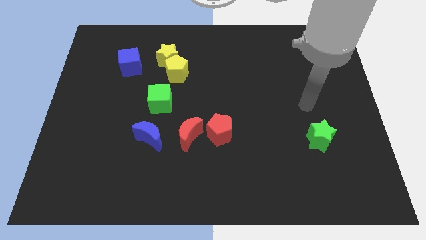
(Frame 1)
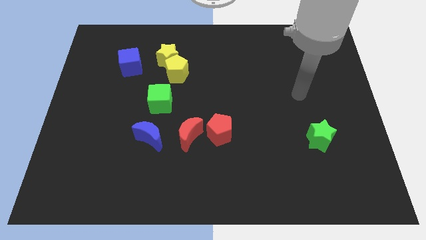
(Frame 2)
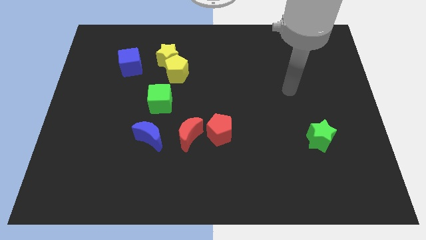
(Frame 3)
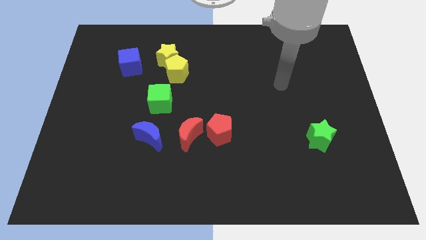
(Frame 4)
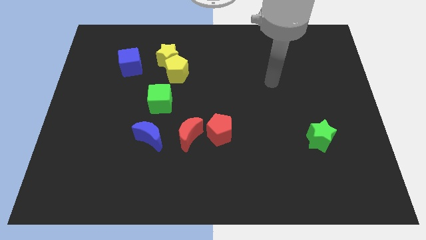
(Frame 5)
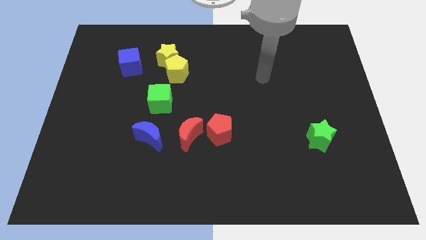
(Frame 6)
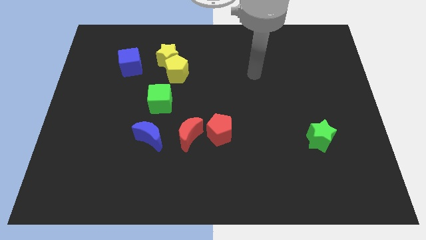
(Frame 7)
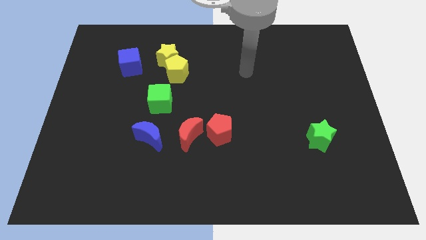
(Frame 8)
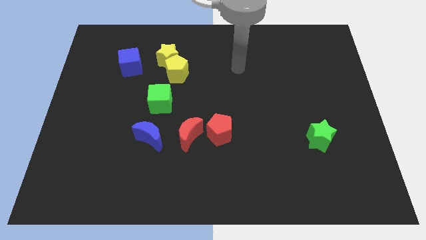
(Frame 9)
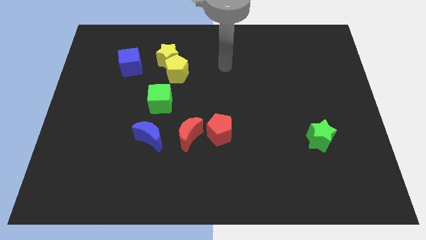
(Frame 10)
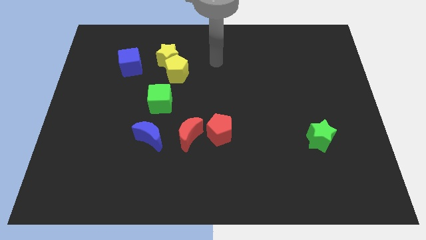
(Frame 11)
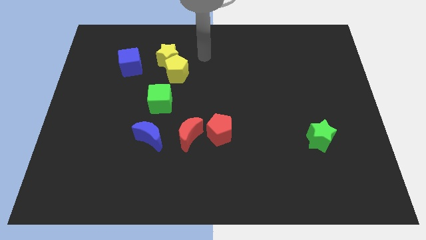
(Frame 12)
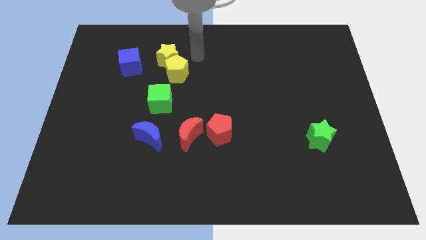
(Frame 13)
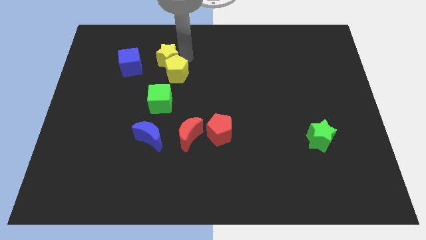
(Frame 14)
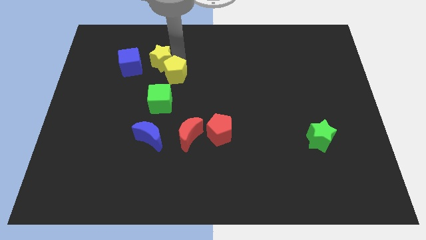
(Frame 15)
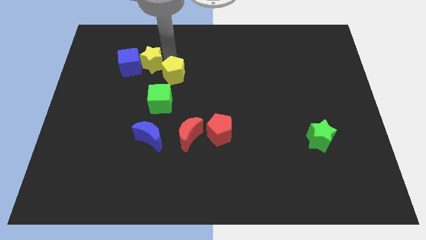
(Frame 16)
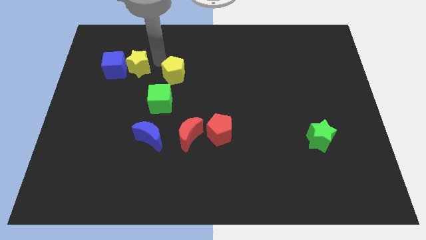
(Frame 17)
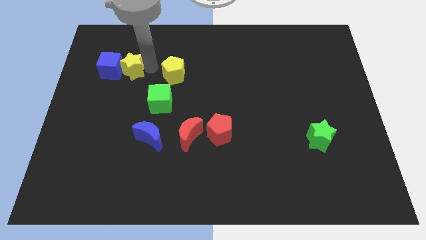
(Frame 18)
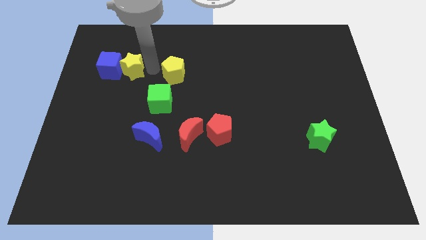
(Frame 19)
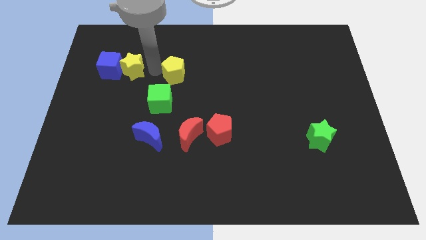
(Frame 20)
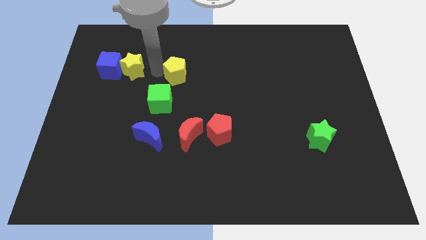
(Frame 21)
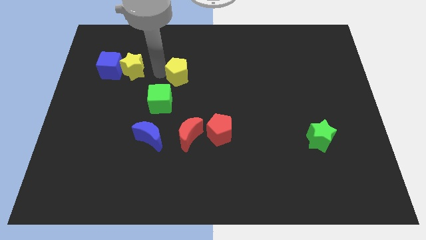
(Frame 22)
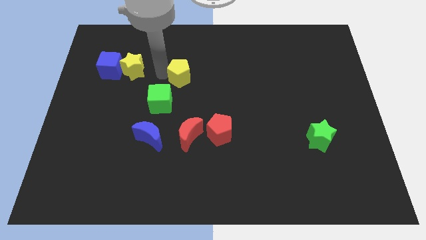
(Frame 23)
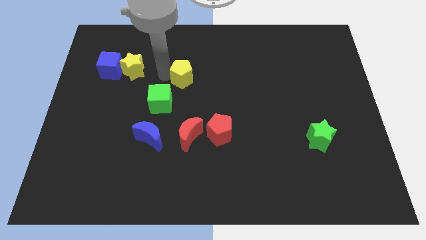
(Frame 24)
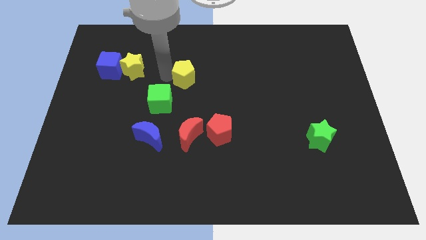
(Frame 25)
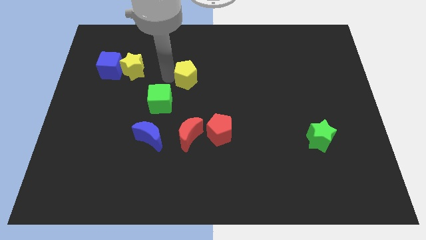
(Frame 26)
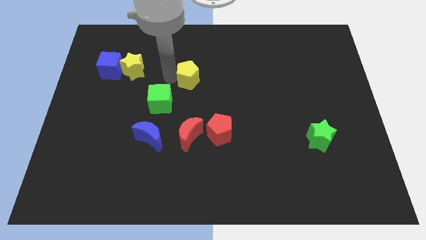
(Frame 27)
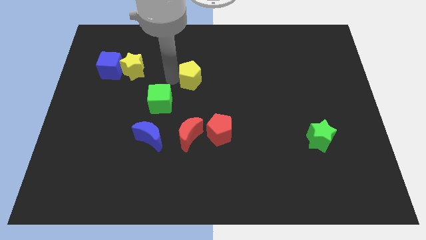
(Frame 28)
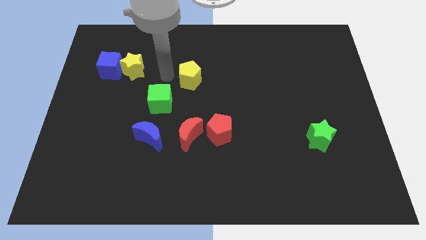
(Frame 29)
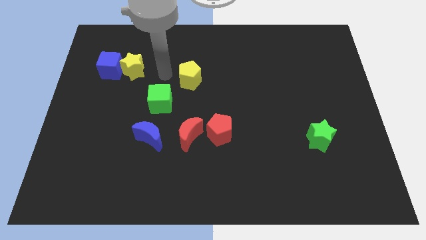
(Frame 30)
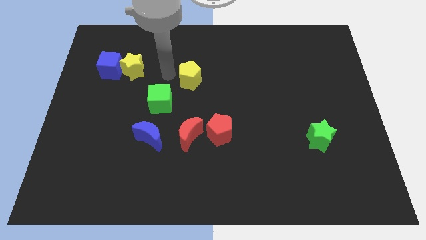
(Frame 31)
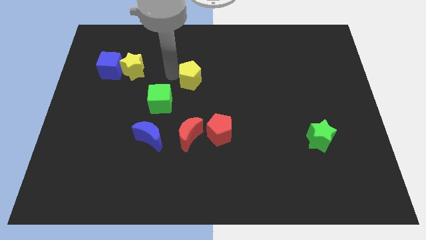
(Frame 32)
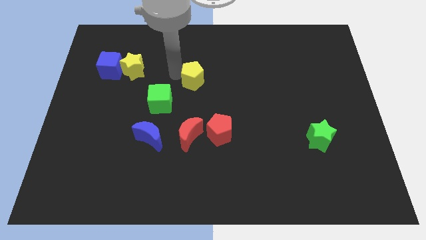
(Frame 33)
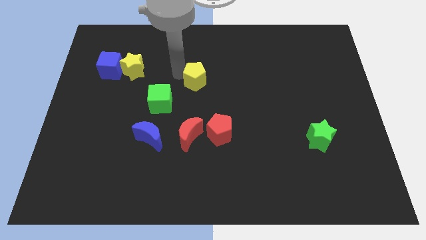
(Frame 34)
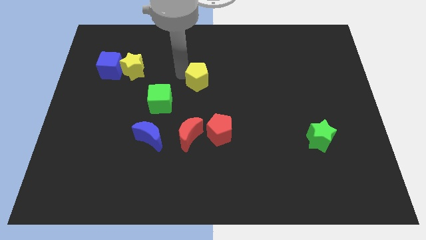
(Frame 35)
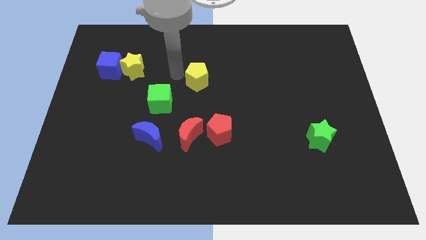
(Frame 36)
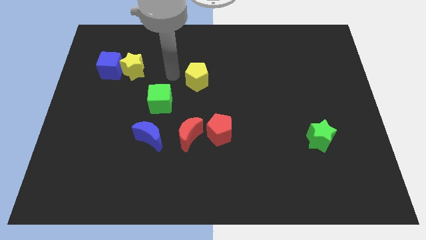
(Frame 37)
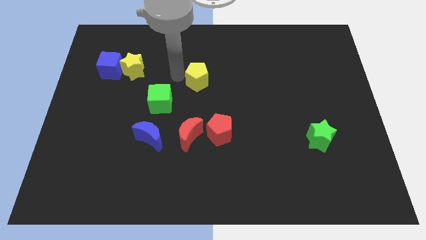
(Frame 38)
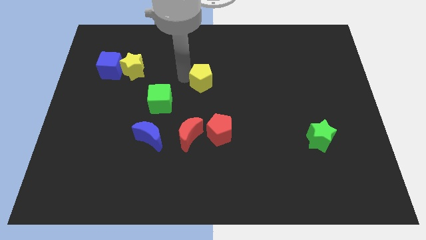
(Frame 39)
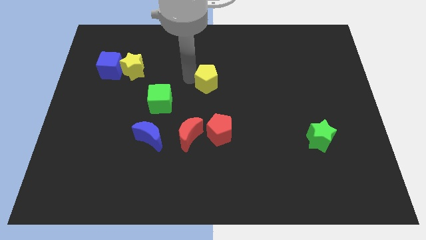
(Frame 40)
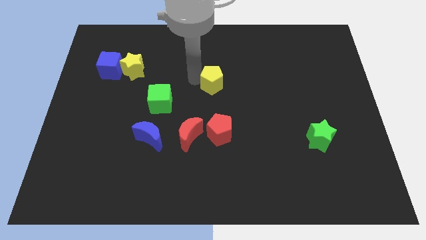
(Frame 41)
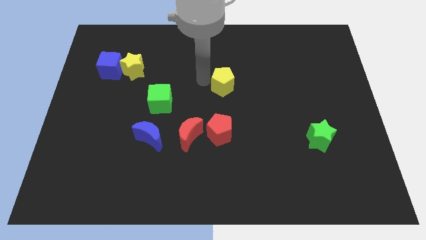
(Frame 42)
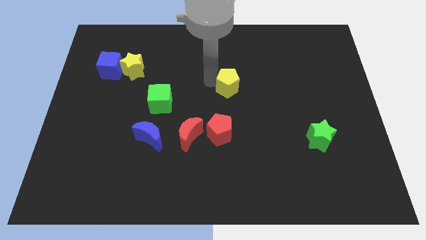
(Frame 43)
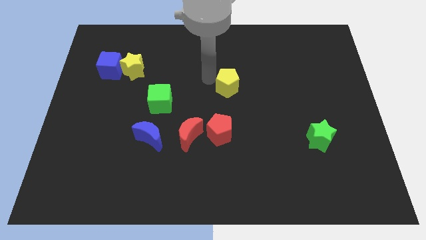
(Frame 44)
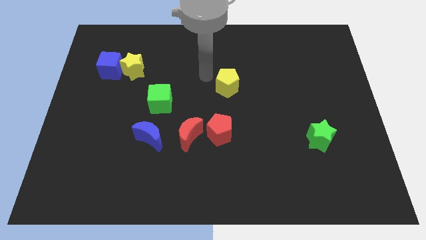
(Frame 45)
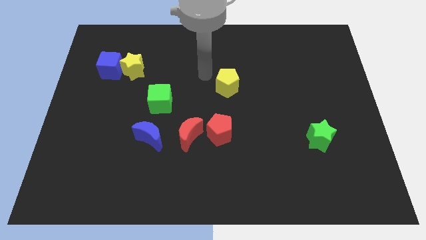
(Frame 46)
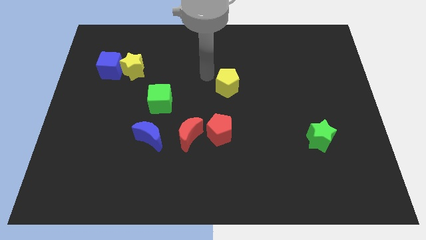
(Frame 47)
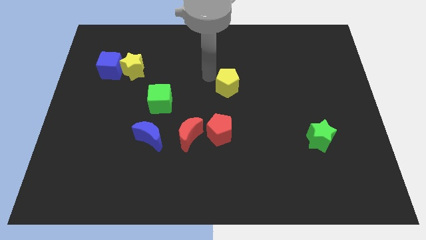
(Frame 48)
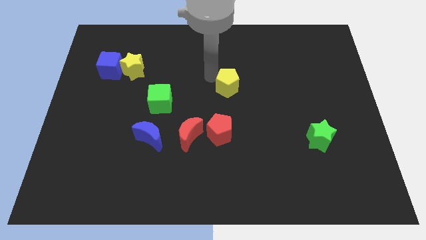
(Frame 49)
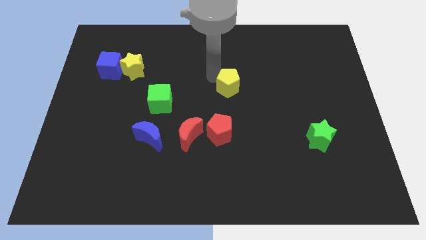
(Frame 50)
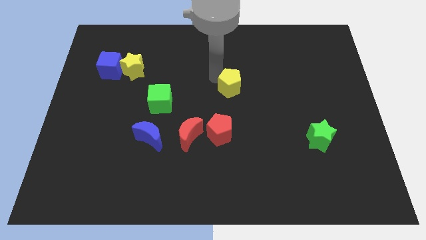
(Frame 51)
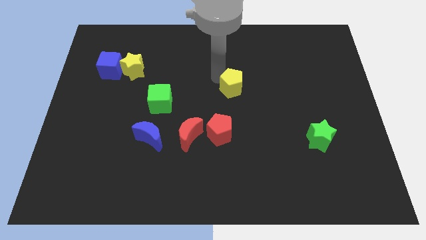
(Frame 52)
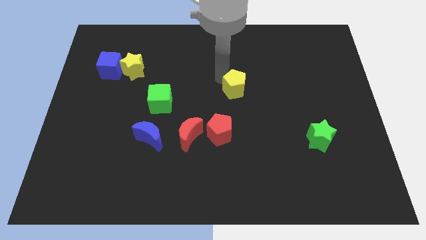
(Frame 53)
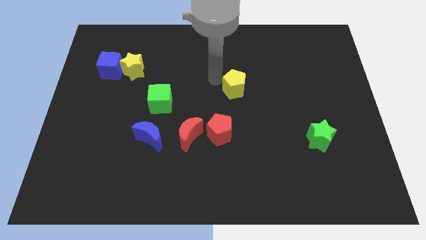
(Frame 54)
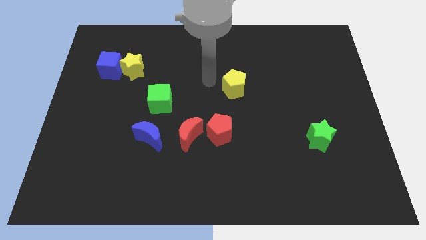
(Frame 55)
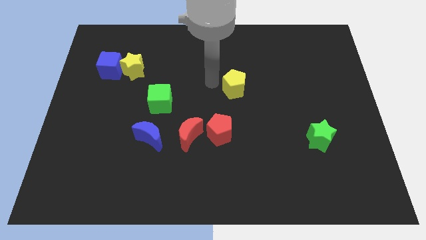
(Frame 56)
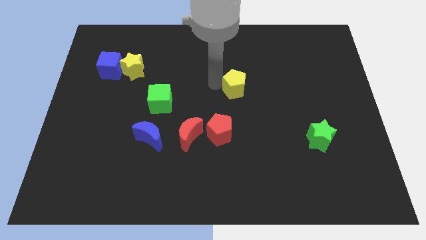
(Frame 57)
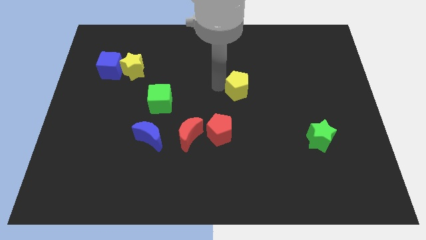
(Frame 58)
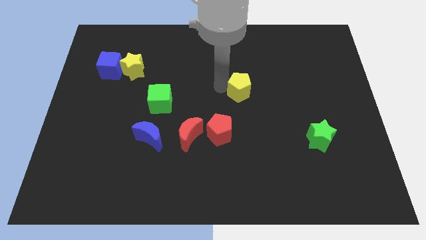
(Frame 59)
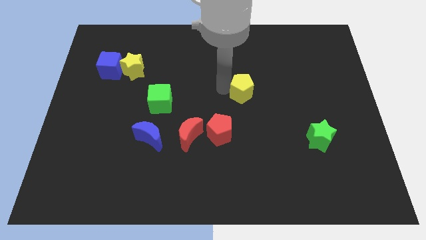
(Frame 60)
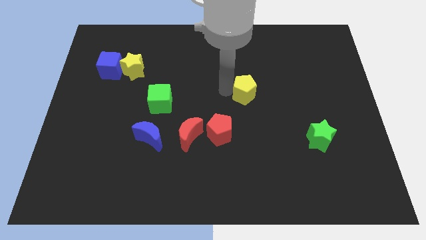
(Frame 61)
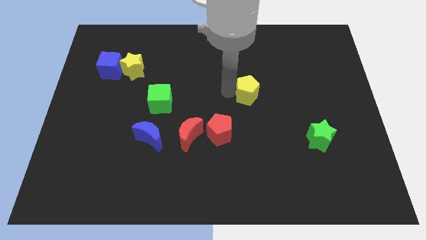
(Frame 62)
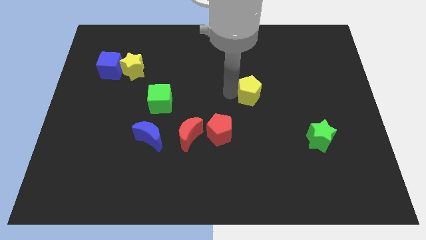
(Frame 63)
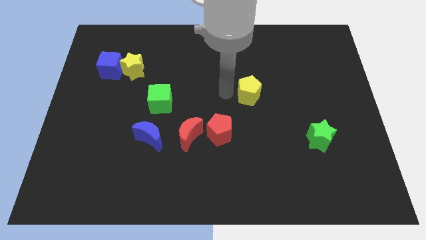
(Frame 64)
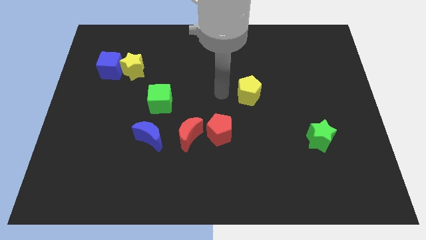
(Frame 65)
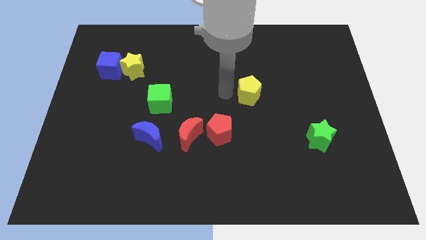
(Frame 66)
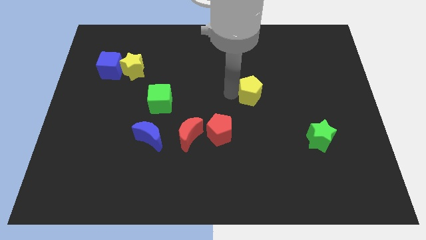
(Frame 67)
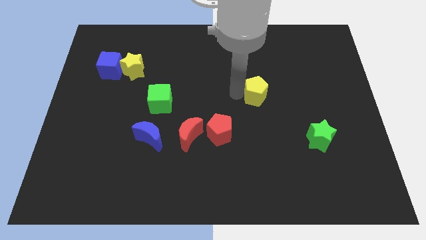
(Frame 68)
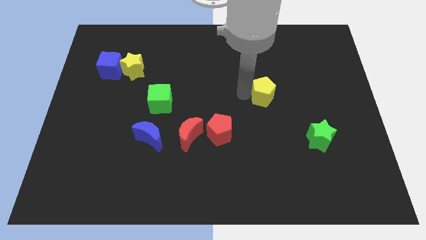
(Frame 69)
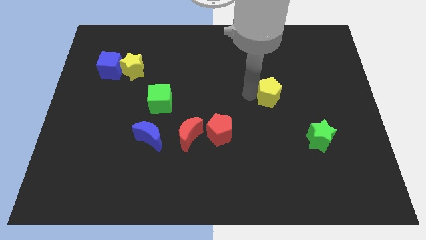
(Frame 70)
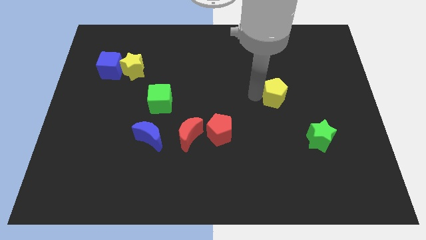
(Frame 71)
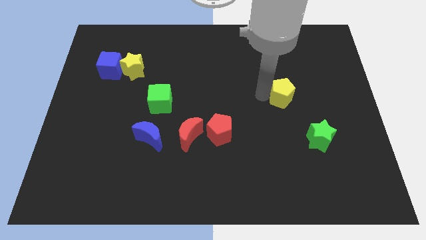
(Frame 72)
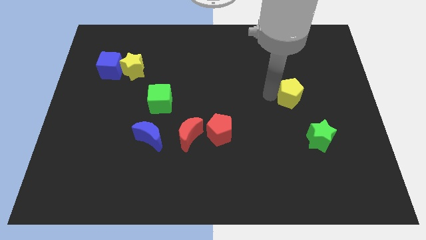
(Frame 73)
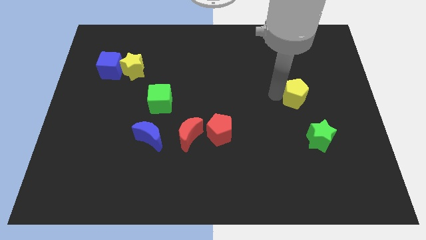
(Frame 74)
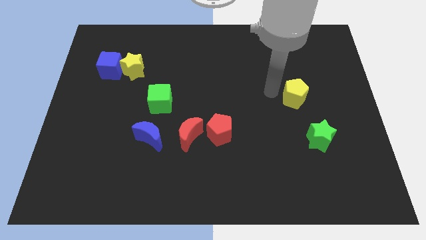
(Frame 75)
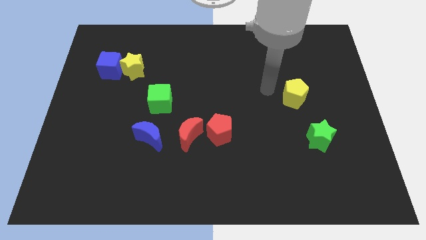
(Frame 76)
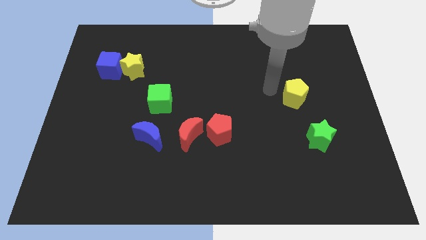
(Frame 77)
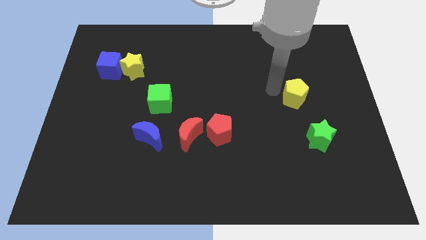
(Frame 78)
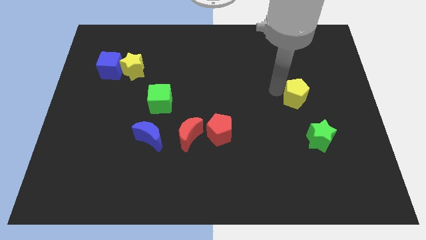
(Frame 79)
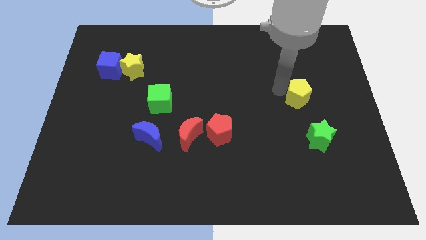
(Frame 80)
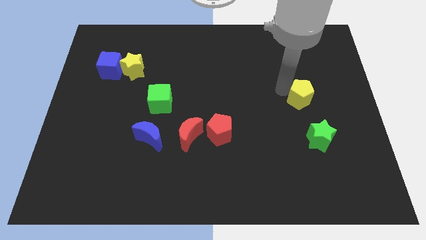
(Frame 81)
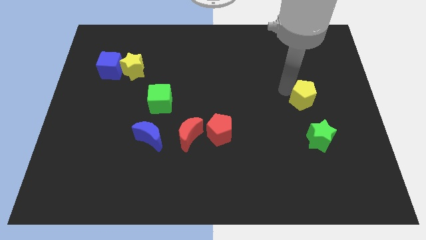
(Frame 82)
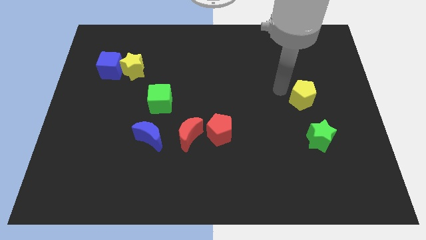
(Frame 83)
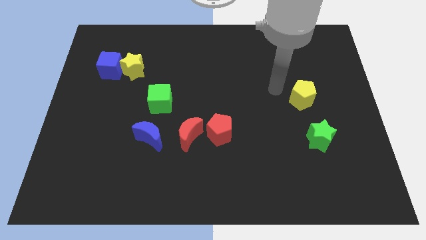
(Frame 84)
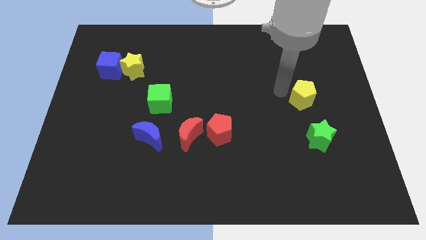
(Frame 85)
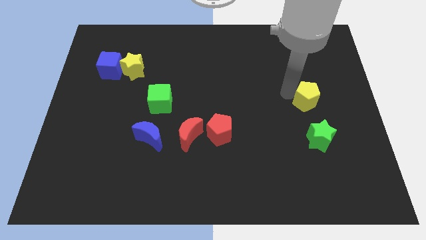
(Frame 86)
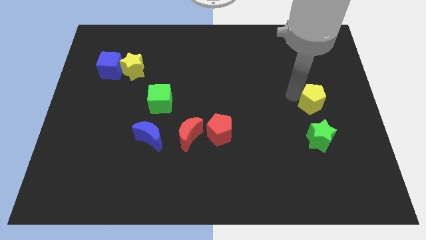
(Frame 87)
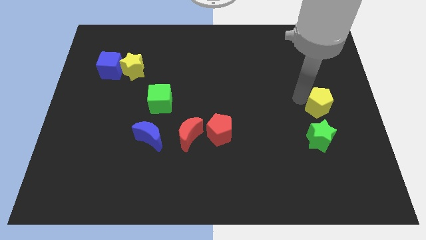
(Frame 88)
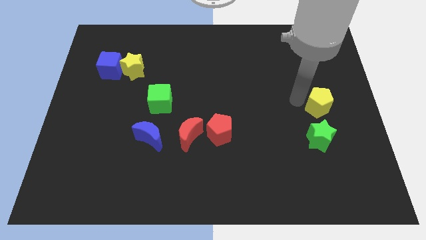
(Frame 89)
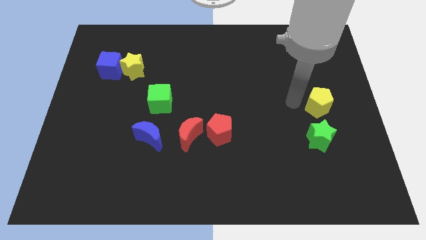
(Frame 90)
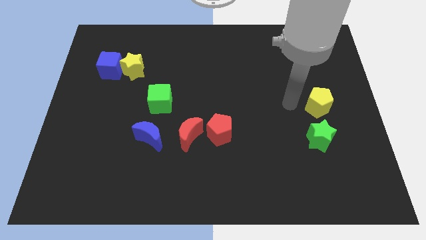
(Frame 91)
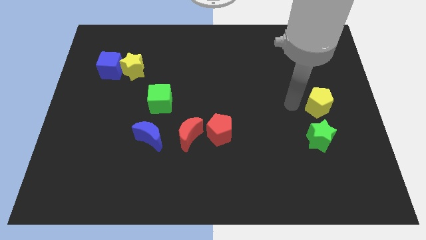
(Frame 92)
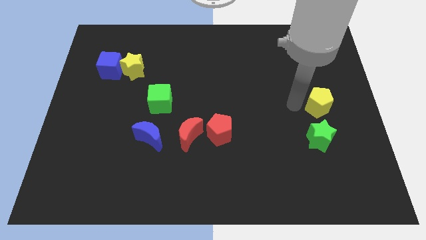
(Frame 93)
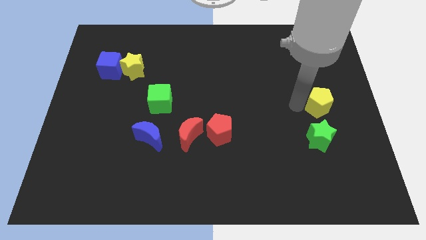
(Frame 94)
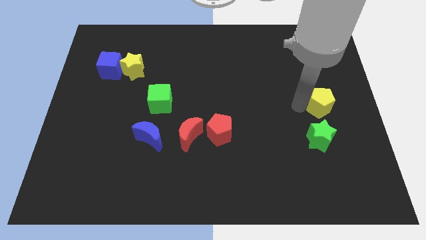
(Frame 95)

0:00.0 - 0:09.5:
put the yellow pentagon to the right side
